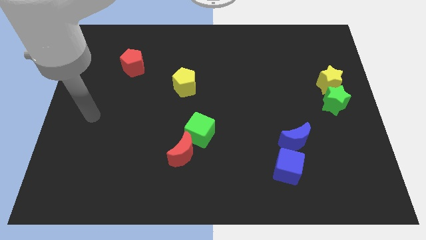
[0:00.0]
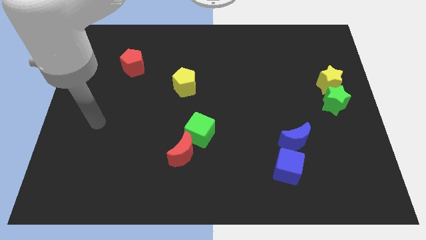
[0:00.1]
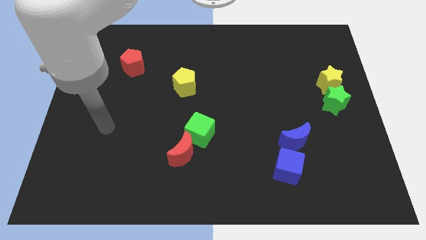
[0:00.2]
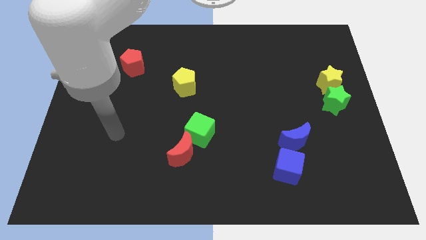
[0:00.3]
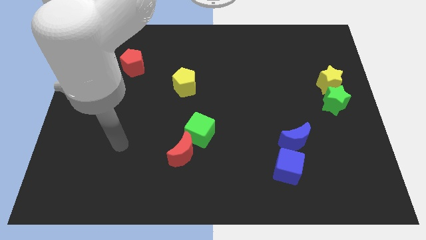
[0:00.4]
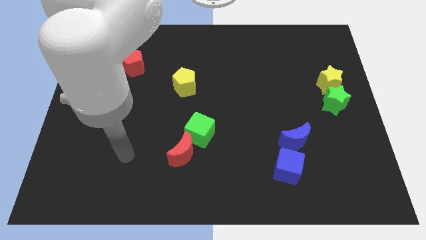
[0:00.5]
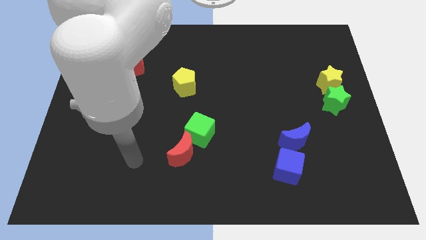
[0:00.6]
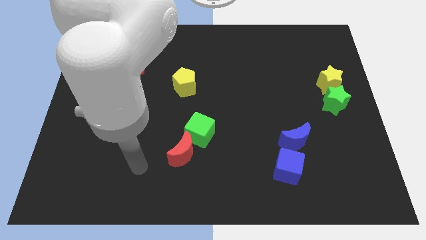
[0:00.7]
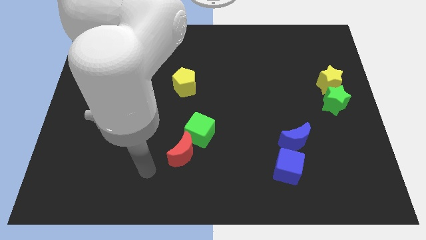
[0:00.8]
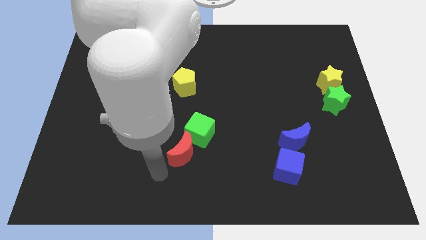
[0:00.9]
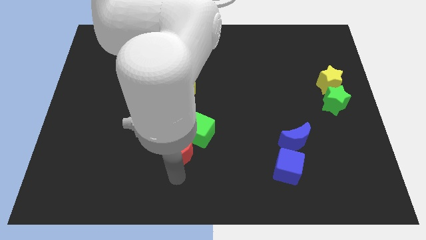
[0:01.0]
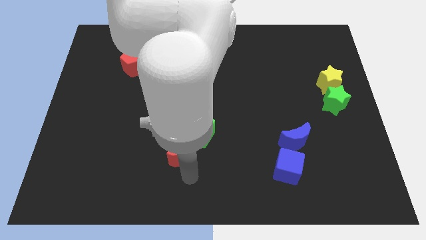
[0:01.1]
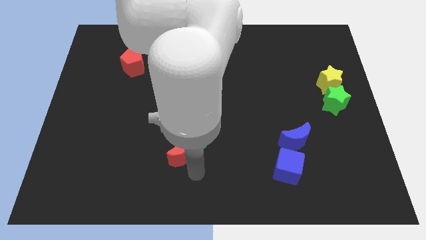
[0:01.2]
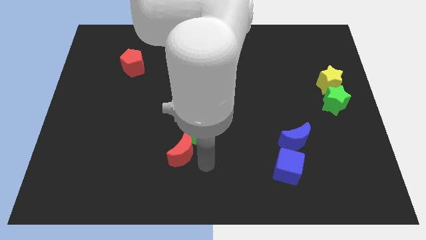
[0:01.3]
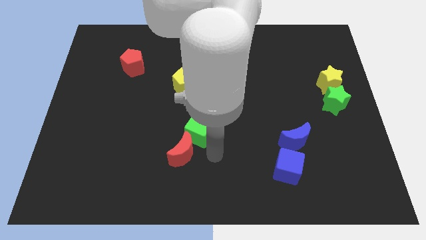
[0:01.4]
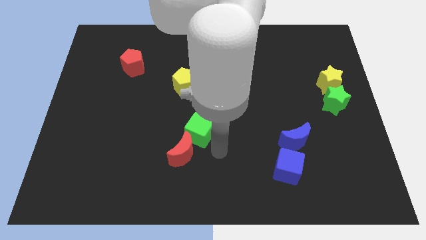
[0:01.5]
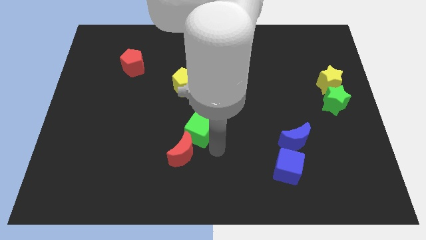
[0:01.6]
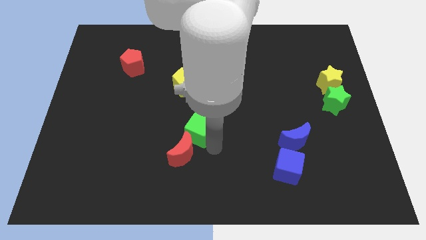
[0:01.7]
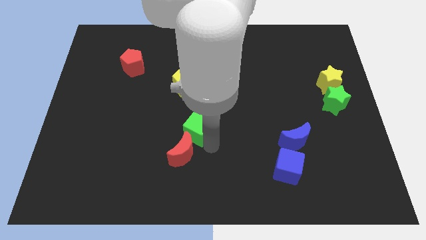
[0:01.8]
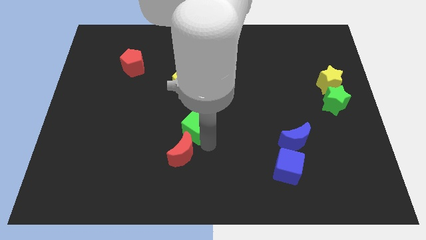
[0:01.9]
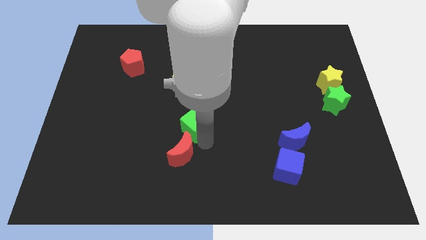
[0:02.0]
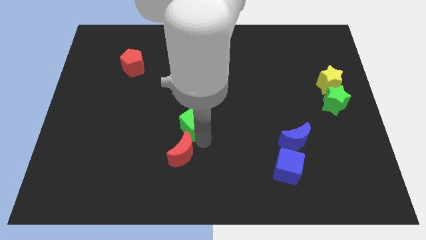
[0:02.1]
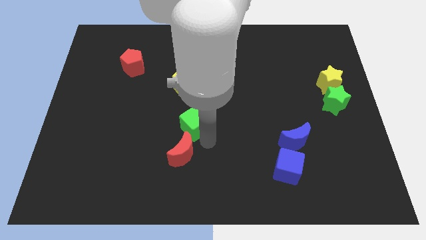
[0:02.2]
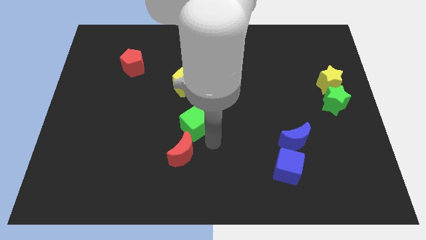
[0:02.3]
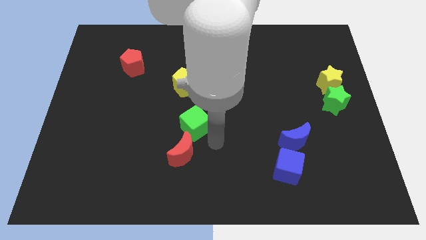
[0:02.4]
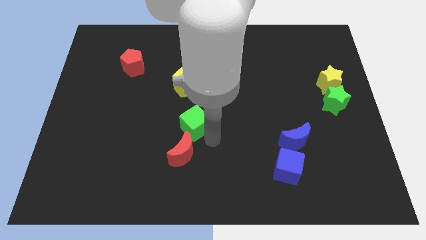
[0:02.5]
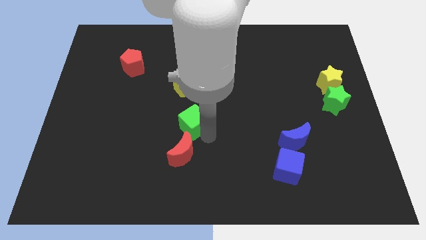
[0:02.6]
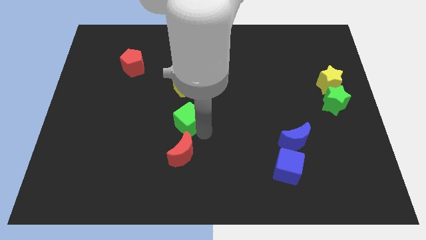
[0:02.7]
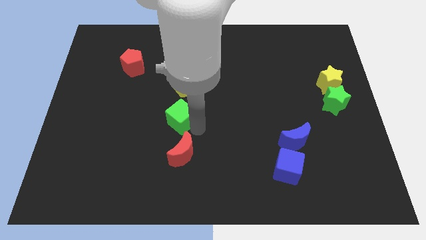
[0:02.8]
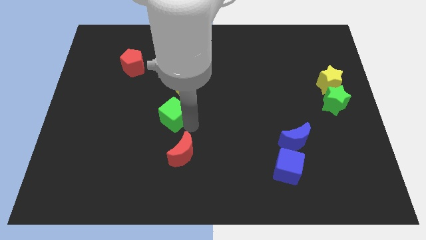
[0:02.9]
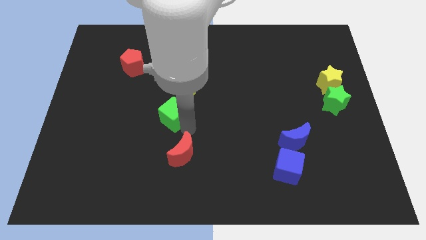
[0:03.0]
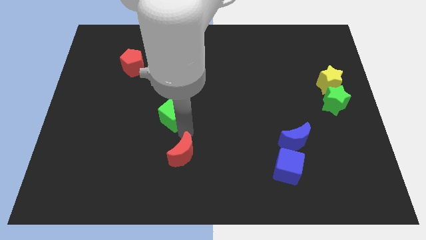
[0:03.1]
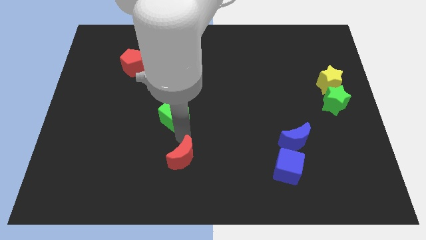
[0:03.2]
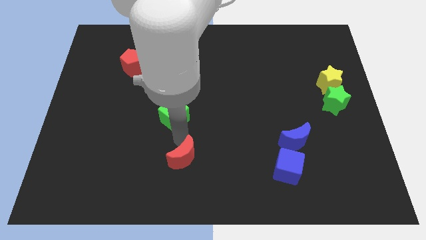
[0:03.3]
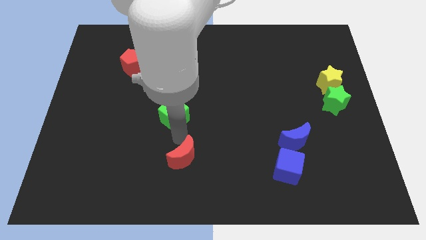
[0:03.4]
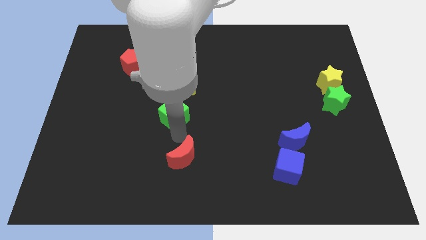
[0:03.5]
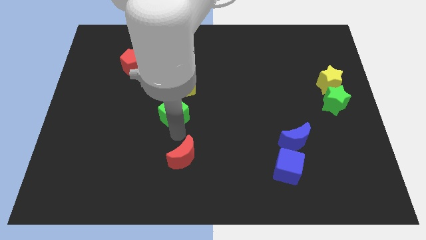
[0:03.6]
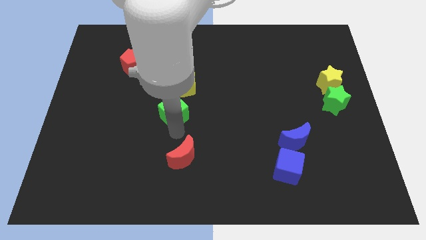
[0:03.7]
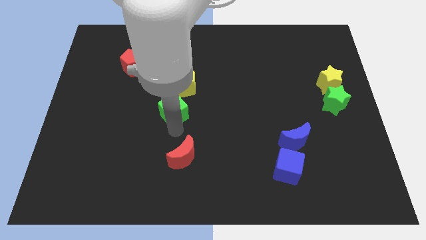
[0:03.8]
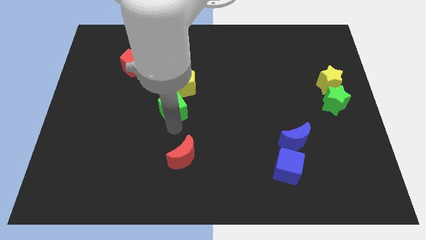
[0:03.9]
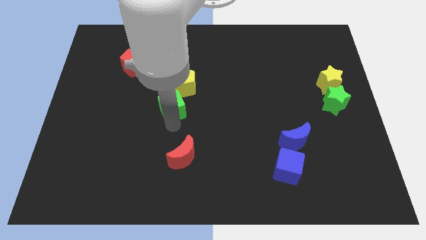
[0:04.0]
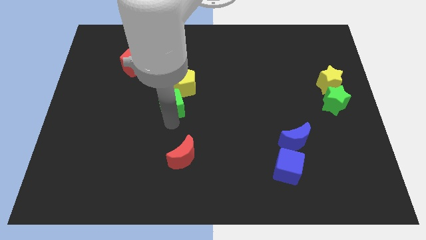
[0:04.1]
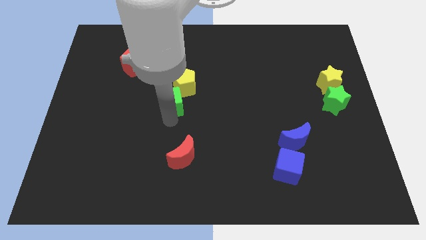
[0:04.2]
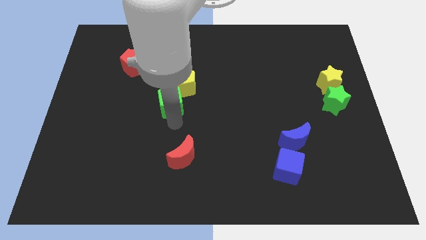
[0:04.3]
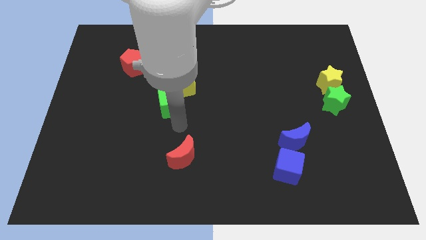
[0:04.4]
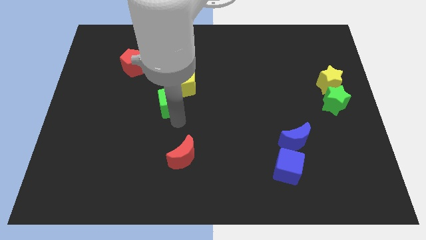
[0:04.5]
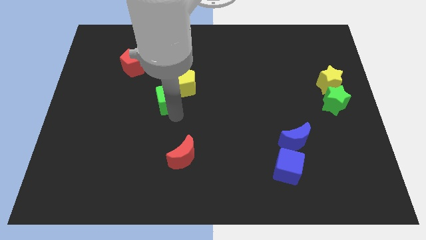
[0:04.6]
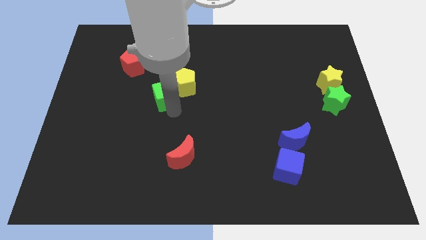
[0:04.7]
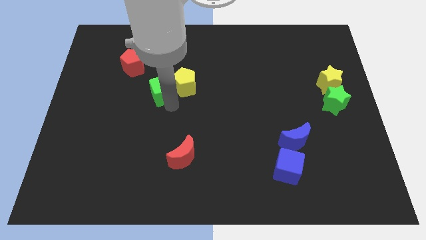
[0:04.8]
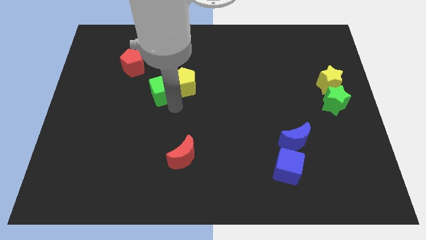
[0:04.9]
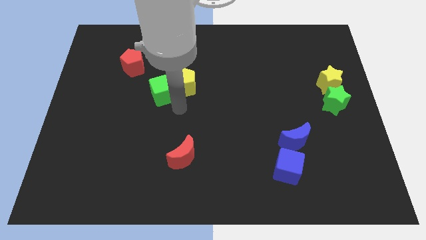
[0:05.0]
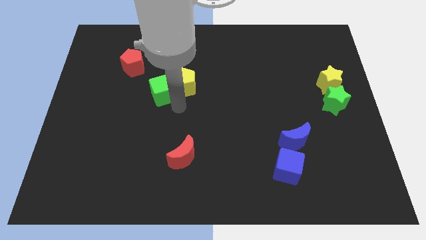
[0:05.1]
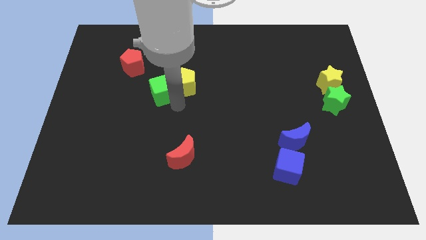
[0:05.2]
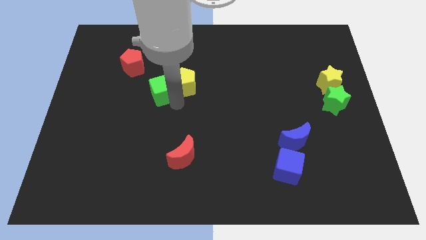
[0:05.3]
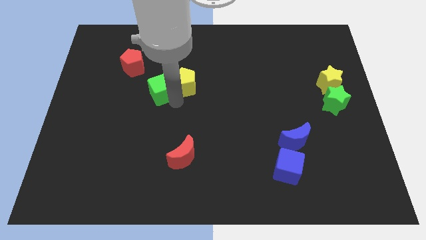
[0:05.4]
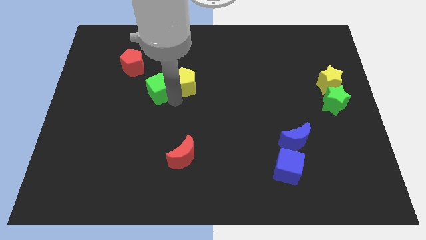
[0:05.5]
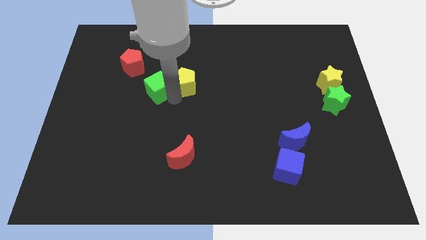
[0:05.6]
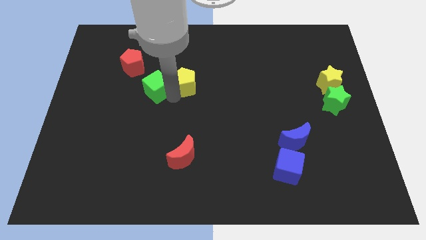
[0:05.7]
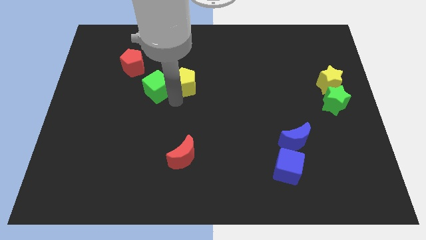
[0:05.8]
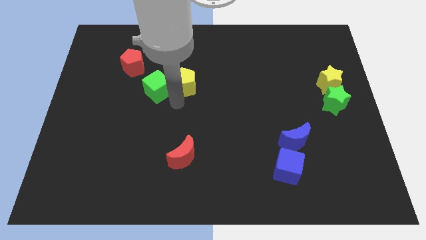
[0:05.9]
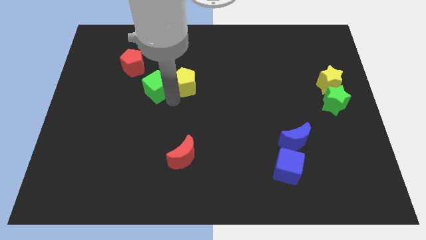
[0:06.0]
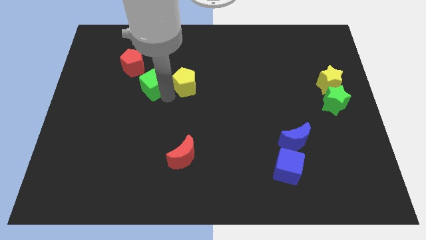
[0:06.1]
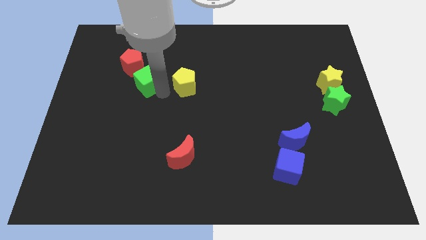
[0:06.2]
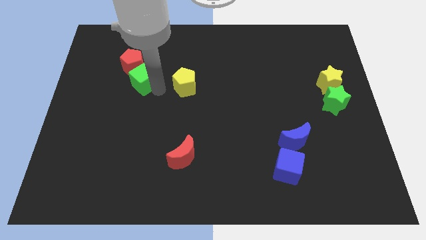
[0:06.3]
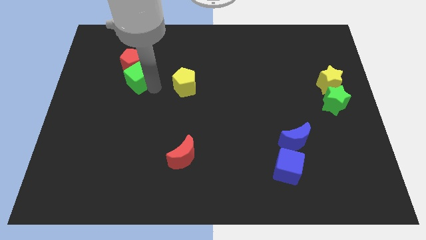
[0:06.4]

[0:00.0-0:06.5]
put the green cube next to the red pentagon

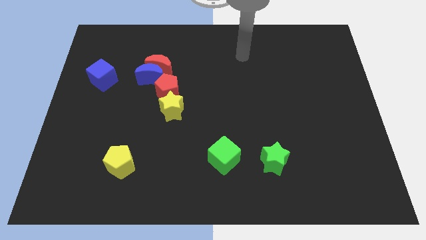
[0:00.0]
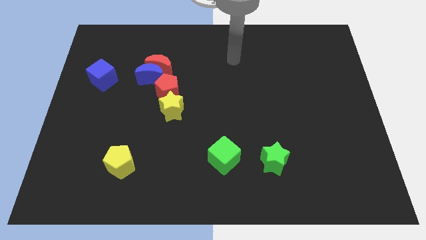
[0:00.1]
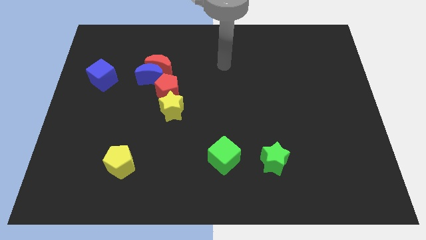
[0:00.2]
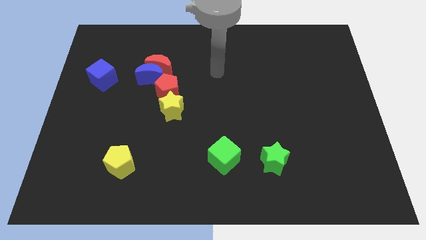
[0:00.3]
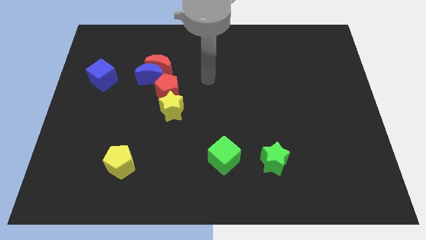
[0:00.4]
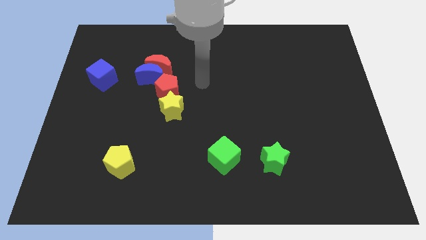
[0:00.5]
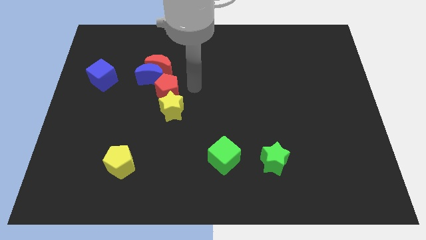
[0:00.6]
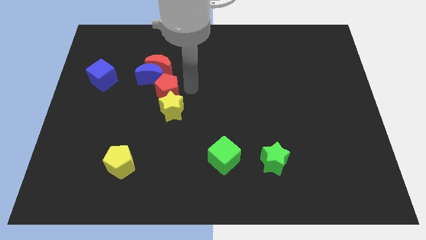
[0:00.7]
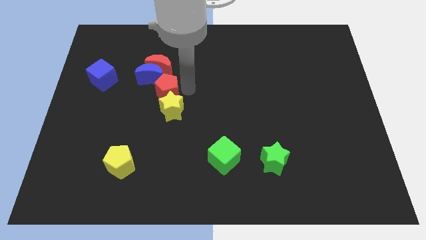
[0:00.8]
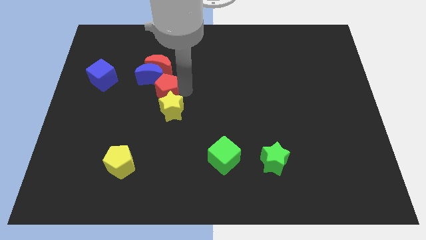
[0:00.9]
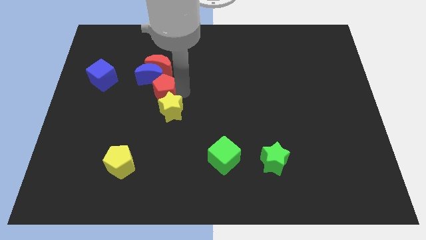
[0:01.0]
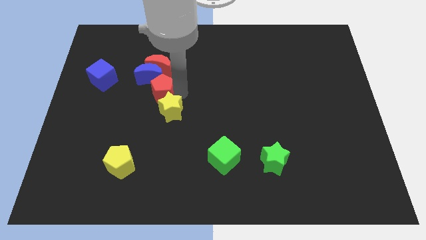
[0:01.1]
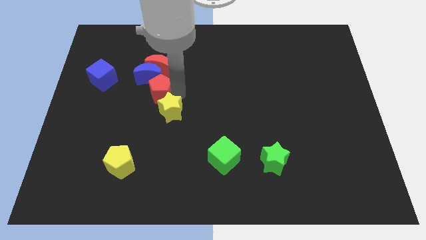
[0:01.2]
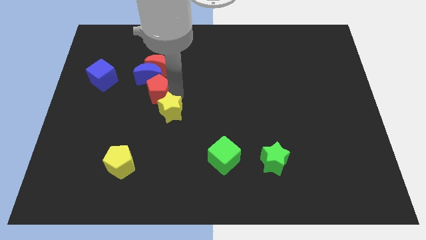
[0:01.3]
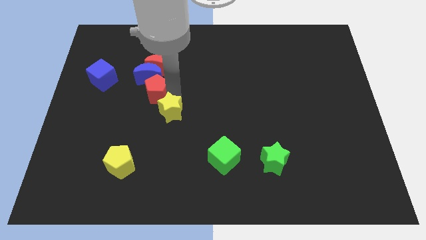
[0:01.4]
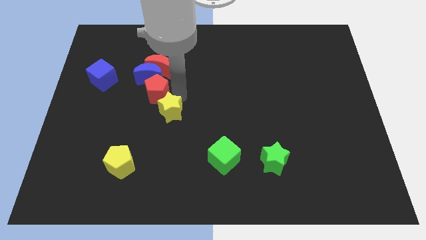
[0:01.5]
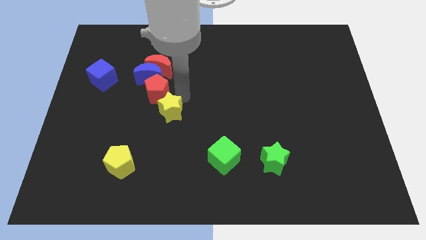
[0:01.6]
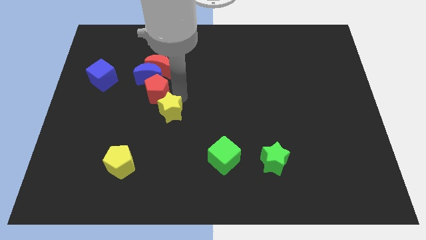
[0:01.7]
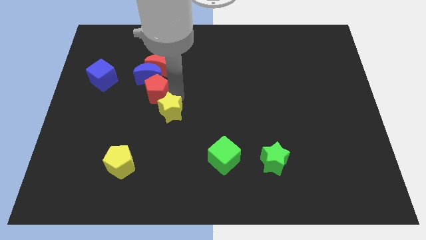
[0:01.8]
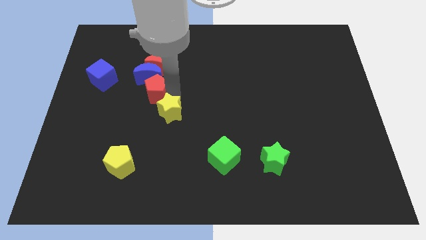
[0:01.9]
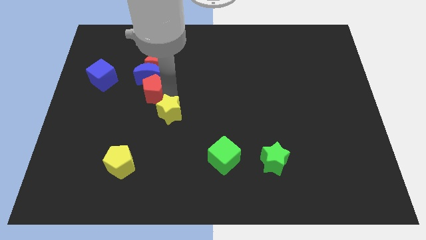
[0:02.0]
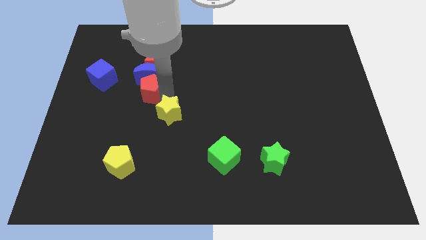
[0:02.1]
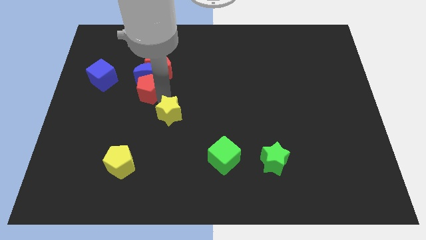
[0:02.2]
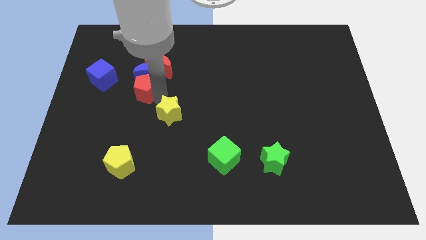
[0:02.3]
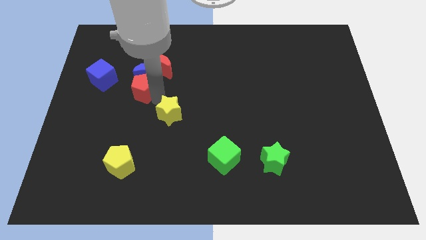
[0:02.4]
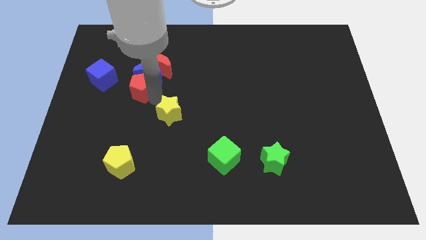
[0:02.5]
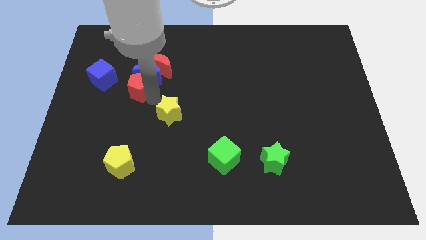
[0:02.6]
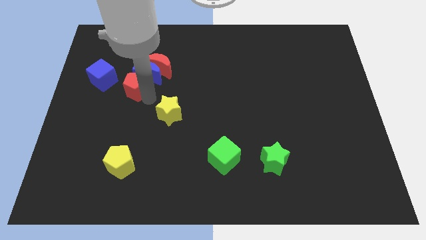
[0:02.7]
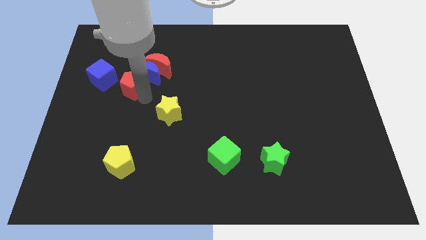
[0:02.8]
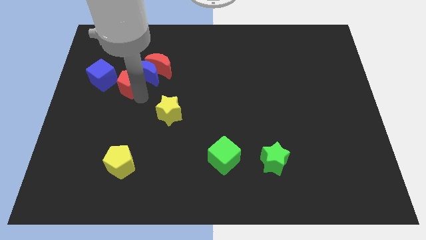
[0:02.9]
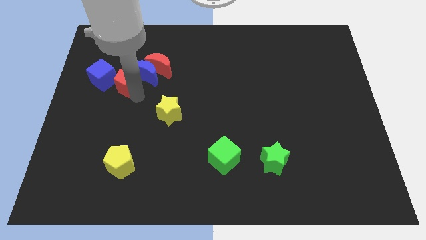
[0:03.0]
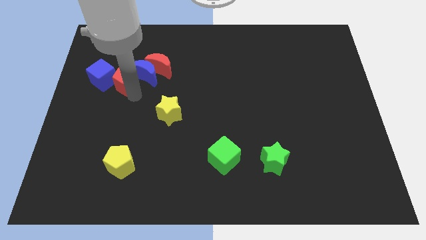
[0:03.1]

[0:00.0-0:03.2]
slide the red pentagon to the blue cube
